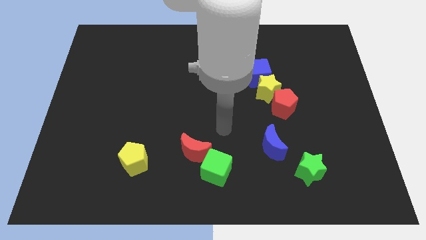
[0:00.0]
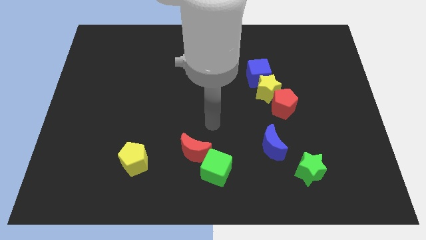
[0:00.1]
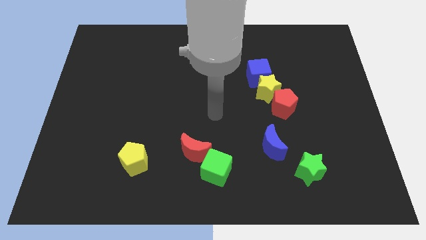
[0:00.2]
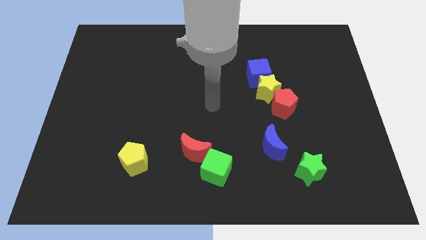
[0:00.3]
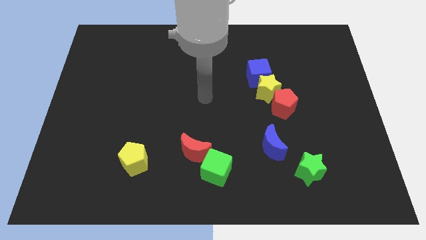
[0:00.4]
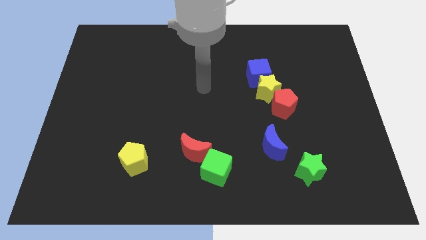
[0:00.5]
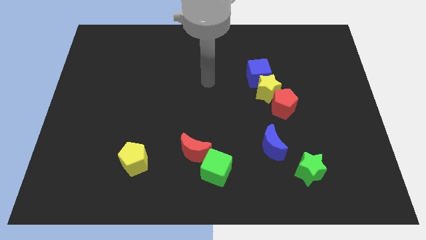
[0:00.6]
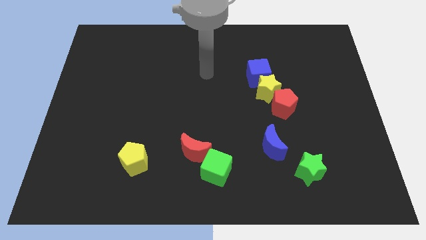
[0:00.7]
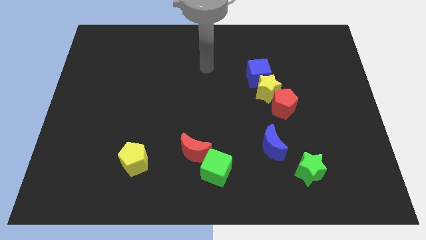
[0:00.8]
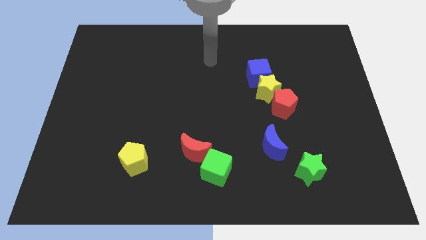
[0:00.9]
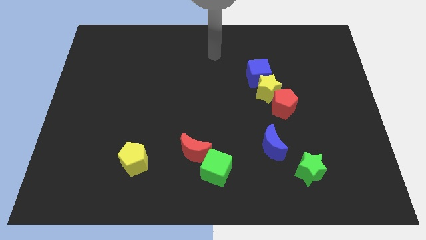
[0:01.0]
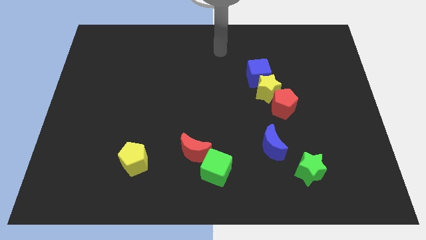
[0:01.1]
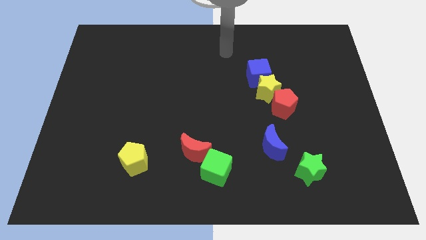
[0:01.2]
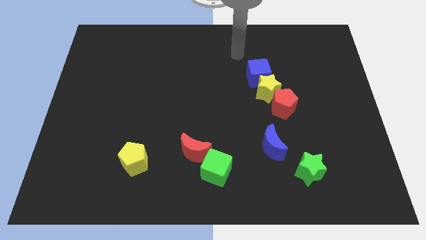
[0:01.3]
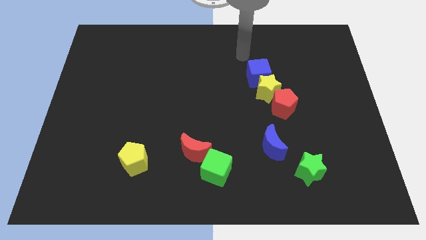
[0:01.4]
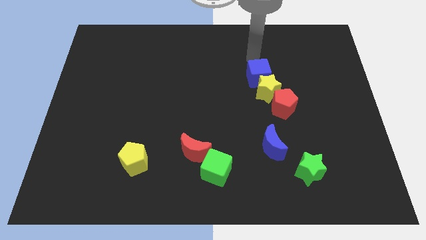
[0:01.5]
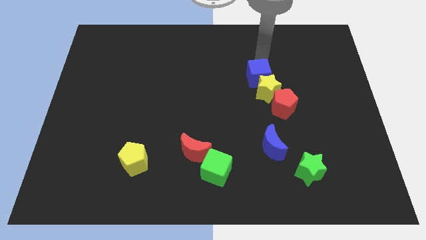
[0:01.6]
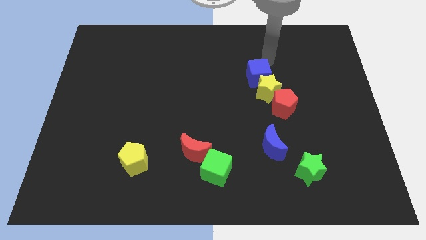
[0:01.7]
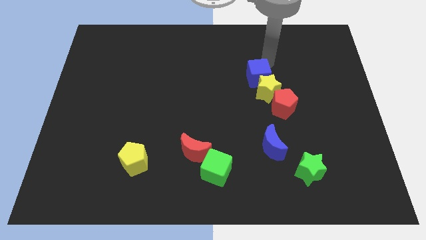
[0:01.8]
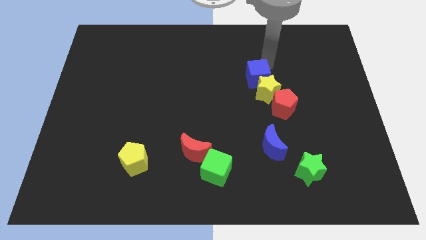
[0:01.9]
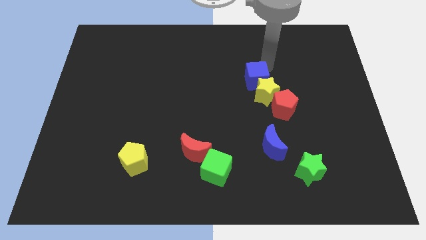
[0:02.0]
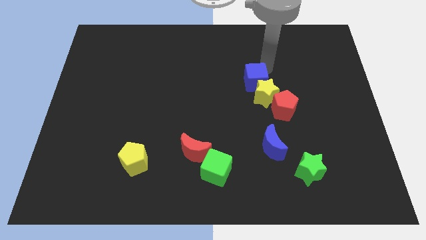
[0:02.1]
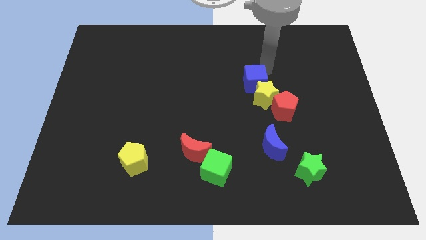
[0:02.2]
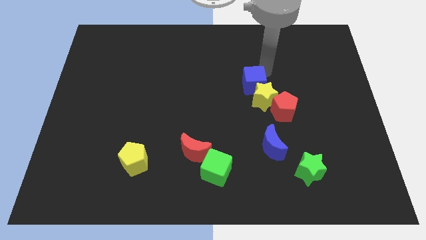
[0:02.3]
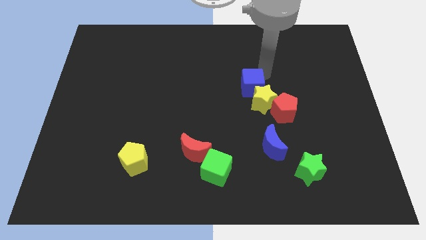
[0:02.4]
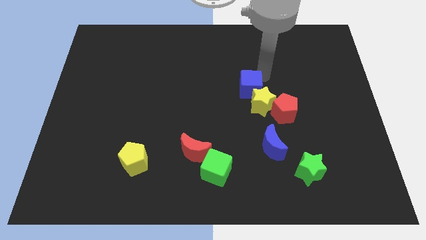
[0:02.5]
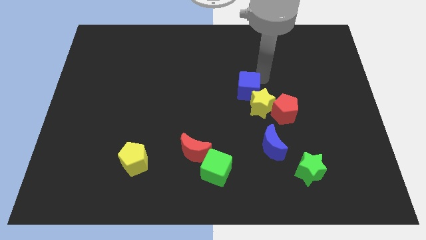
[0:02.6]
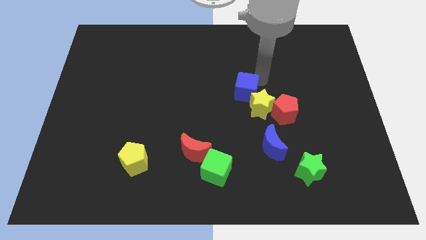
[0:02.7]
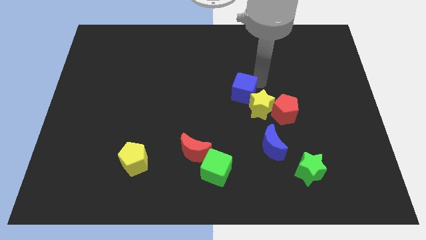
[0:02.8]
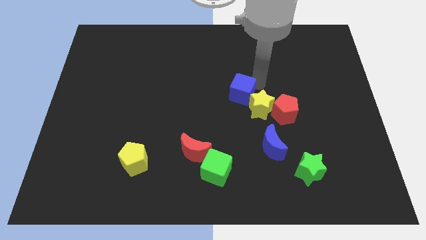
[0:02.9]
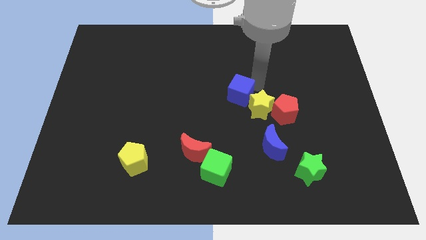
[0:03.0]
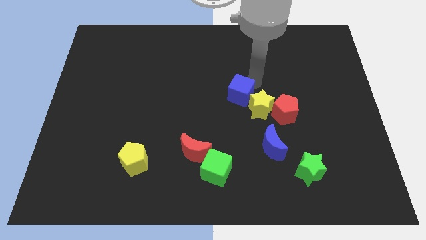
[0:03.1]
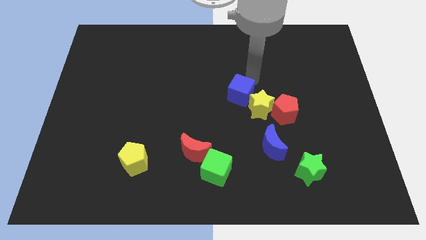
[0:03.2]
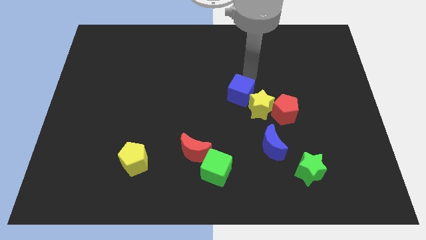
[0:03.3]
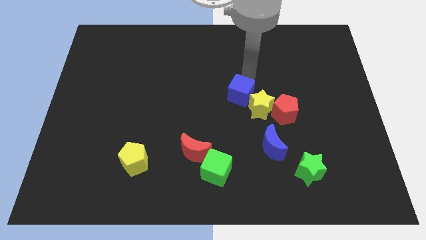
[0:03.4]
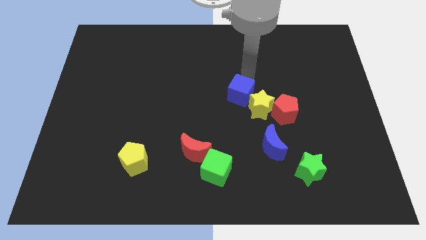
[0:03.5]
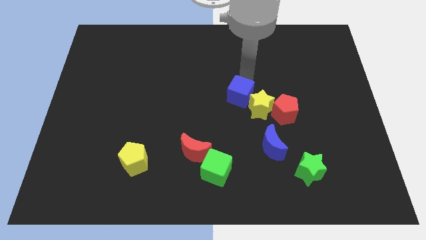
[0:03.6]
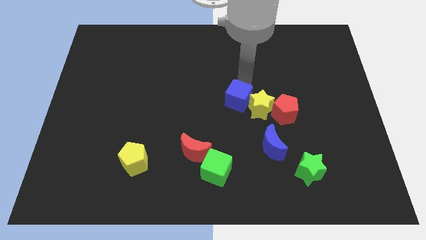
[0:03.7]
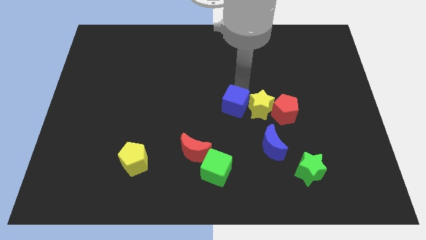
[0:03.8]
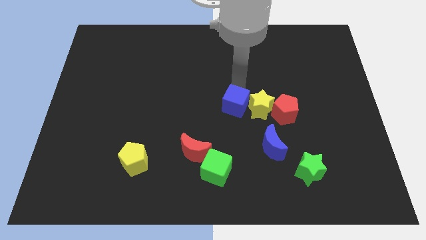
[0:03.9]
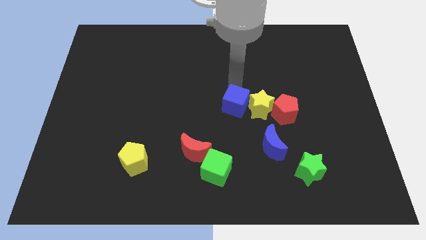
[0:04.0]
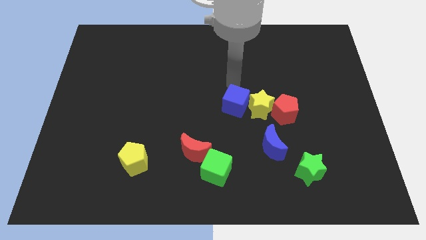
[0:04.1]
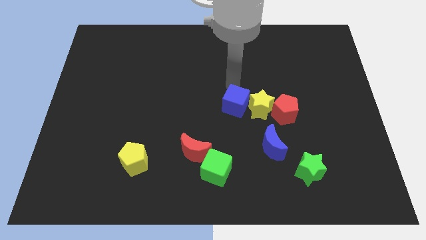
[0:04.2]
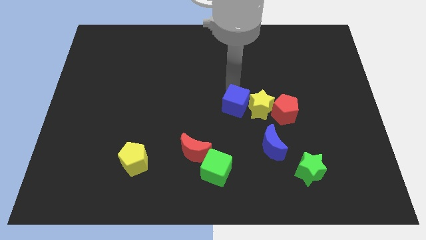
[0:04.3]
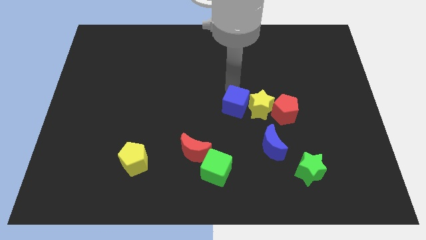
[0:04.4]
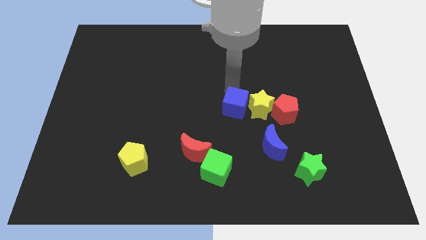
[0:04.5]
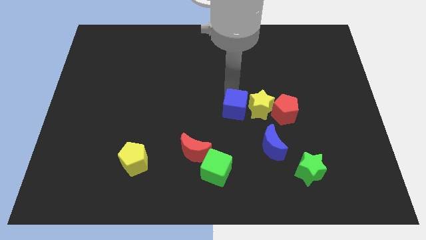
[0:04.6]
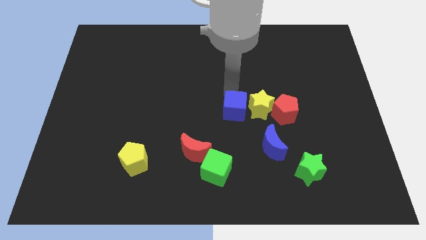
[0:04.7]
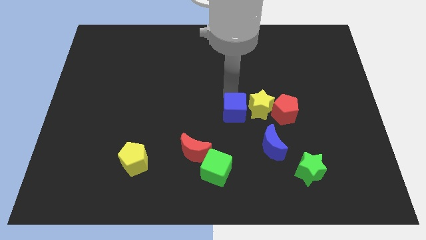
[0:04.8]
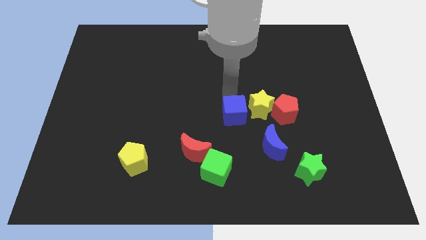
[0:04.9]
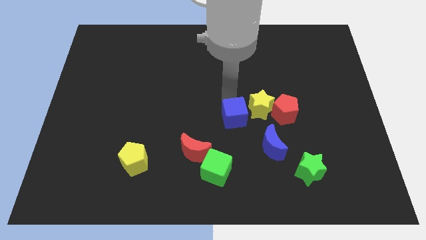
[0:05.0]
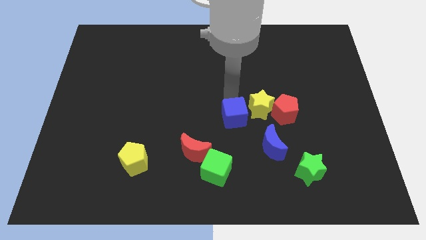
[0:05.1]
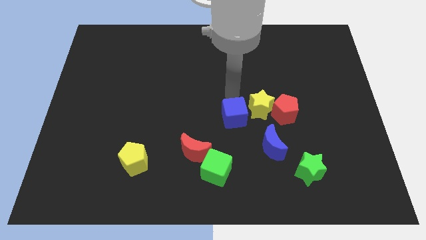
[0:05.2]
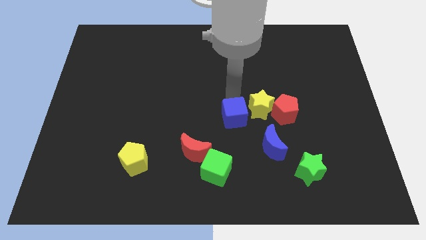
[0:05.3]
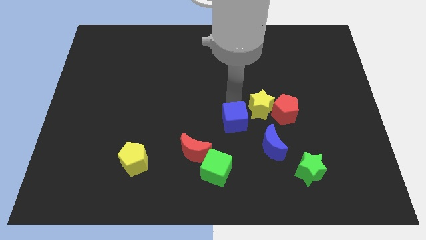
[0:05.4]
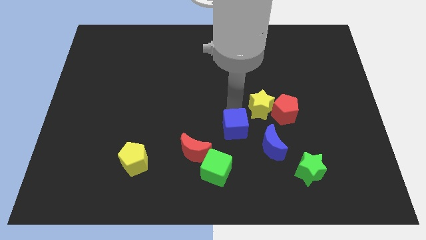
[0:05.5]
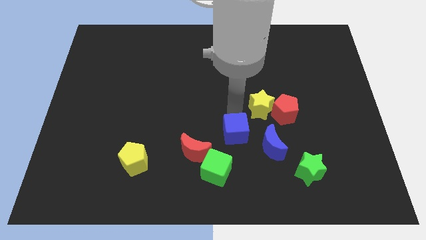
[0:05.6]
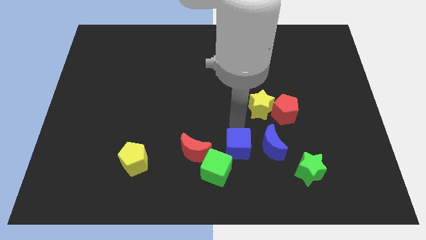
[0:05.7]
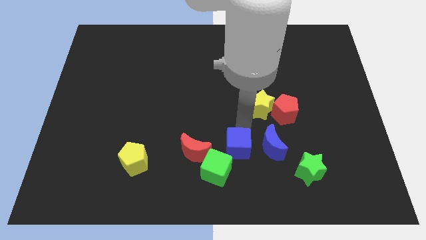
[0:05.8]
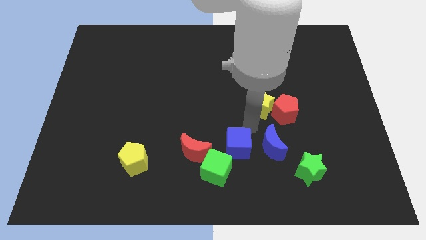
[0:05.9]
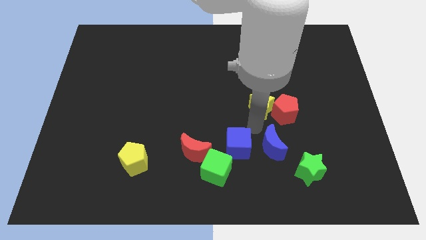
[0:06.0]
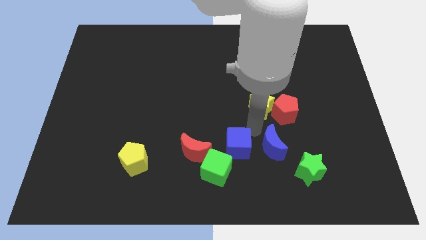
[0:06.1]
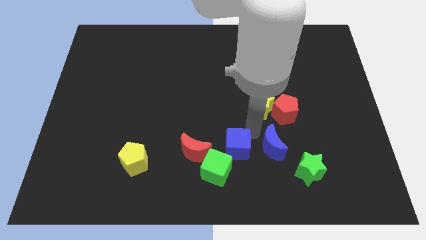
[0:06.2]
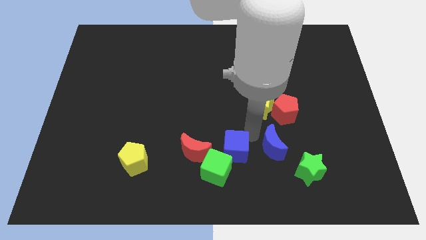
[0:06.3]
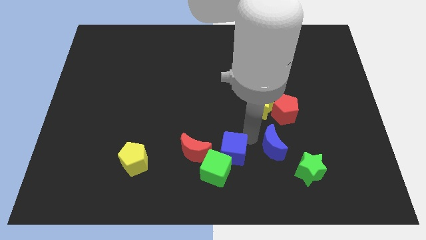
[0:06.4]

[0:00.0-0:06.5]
move the blue cube to the green cube
